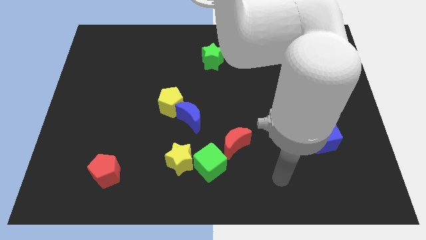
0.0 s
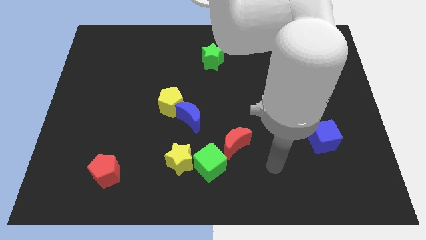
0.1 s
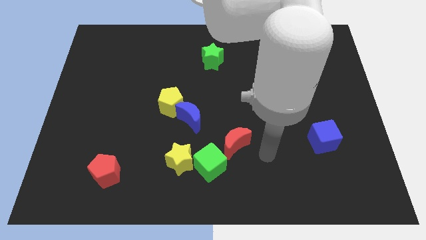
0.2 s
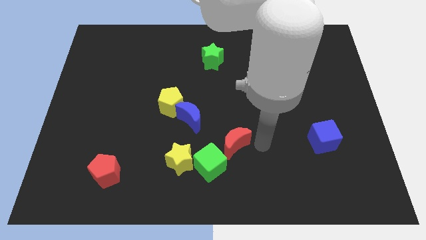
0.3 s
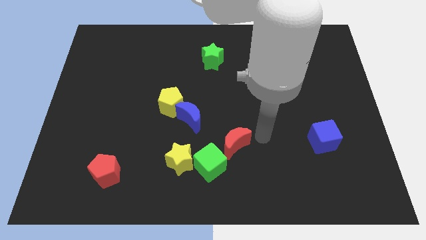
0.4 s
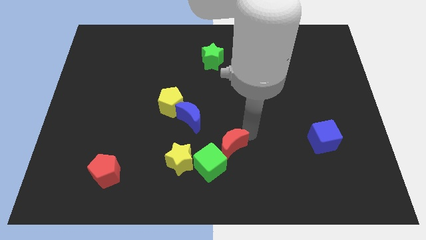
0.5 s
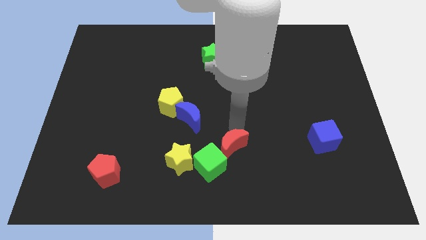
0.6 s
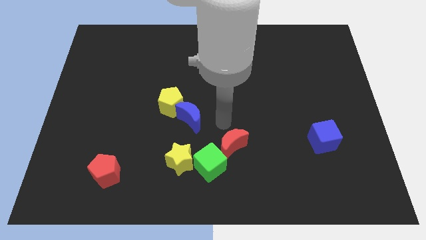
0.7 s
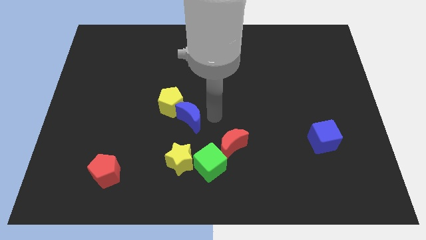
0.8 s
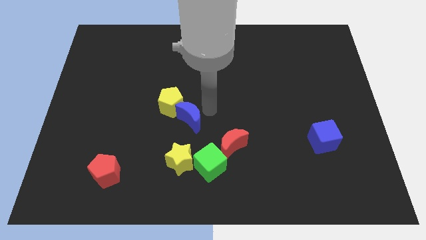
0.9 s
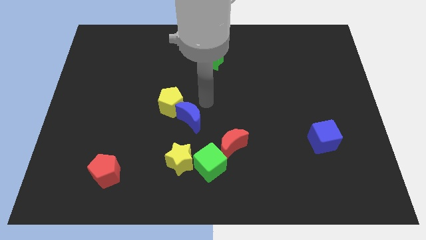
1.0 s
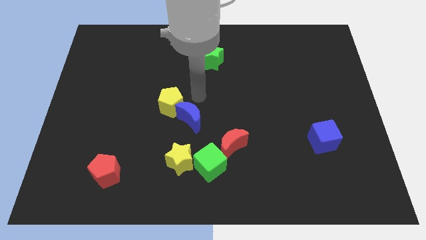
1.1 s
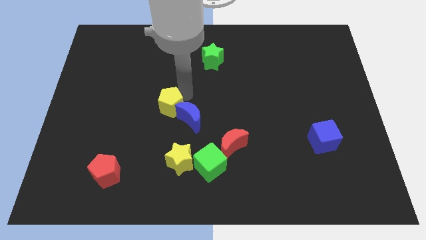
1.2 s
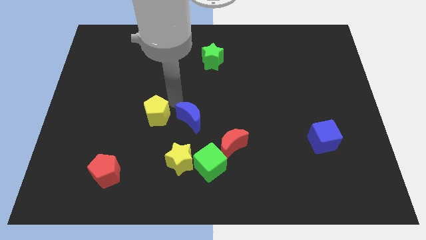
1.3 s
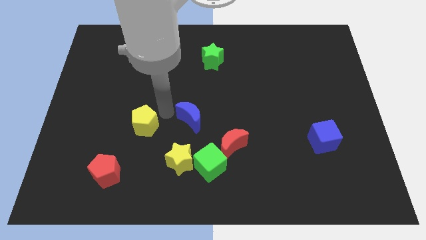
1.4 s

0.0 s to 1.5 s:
pull the blue moon apart from the yellow pentagon

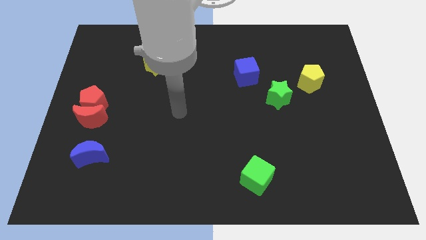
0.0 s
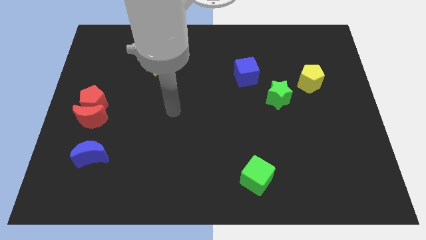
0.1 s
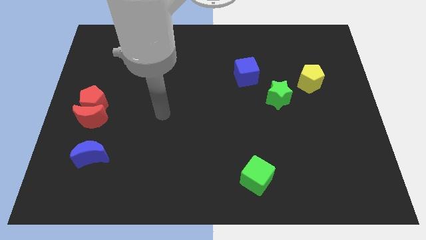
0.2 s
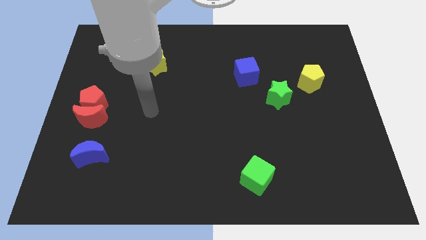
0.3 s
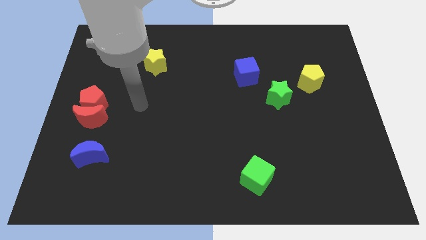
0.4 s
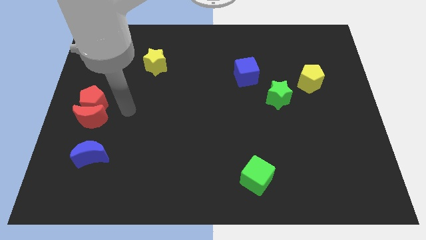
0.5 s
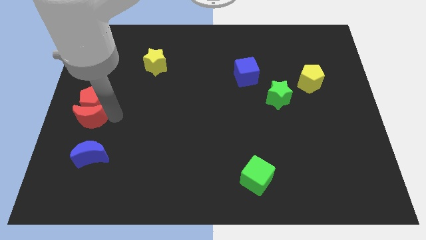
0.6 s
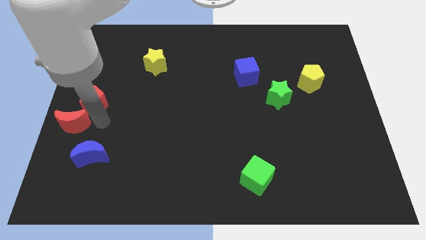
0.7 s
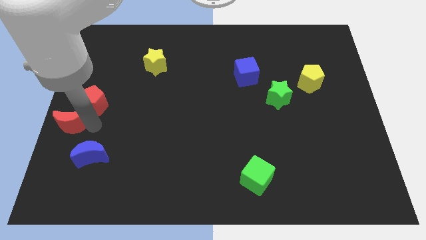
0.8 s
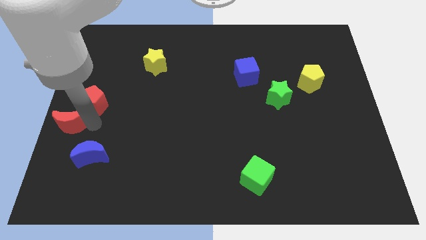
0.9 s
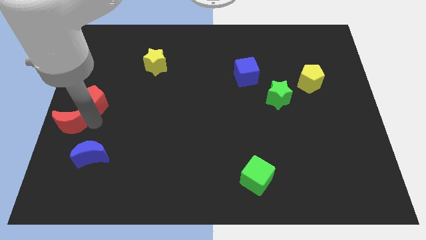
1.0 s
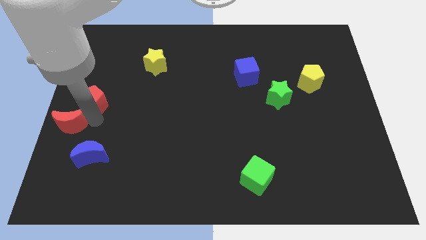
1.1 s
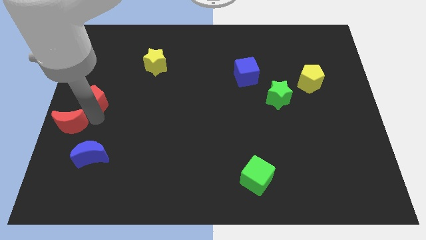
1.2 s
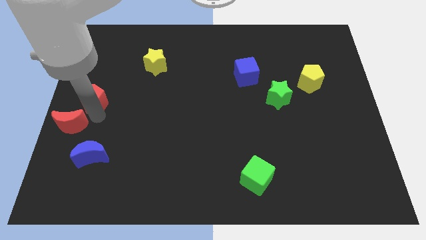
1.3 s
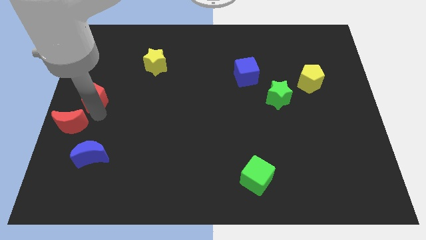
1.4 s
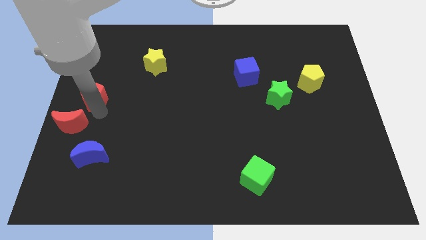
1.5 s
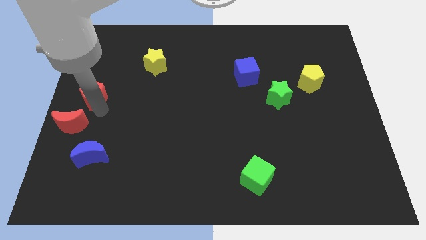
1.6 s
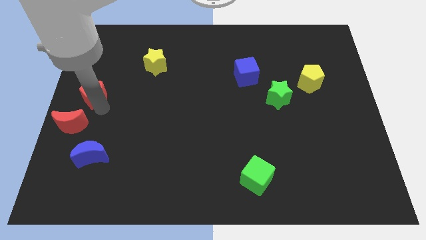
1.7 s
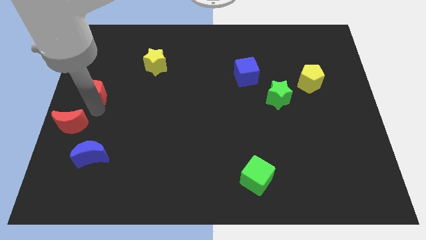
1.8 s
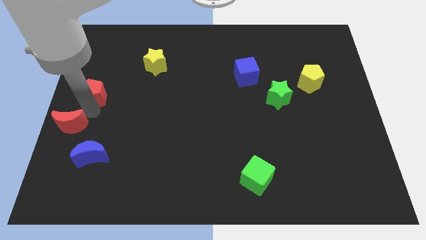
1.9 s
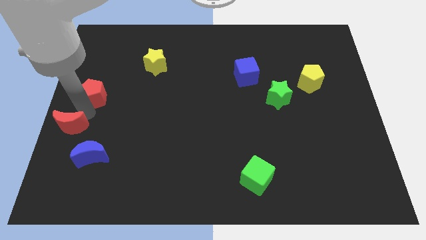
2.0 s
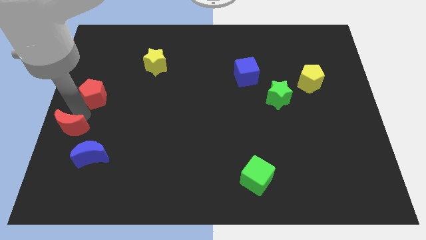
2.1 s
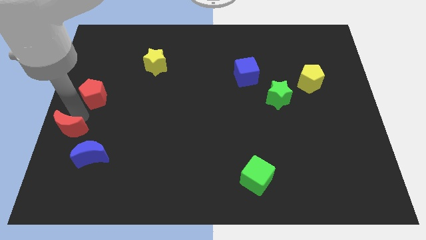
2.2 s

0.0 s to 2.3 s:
pull the red pentagon apart from the red moon

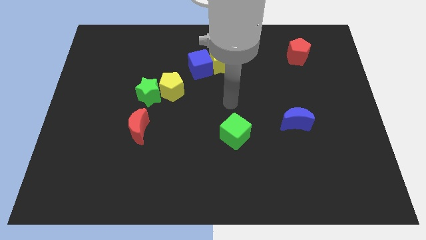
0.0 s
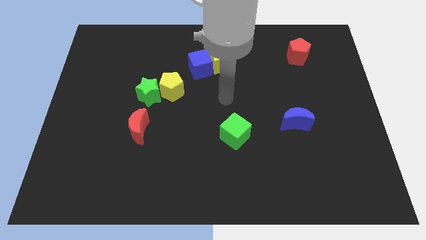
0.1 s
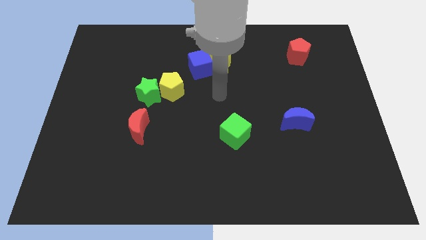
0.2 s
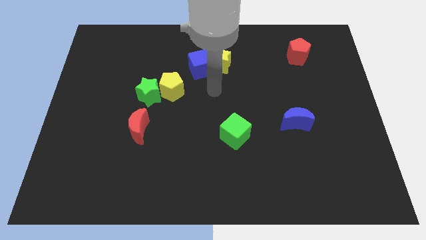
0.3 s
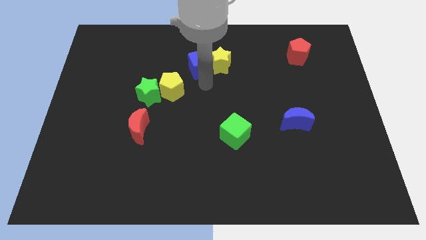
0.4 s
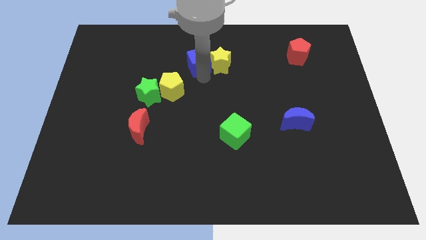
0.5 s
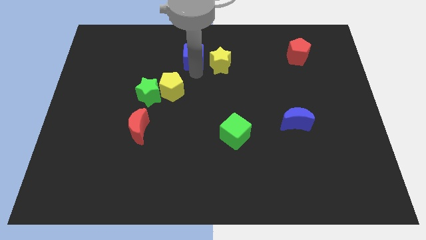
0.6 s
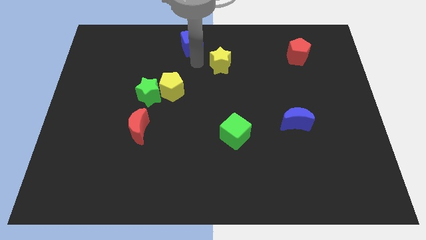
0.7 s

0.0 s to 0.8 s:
pull the yellow star apart from the blue cube

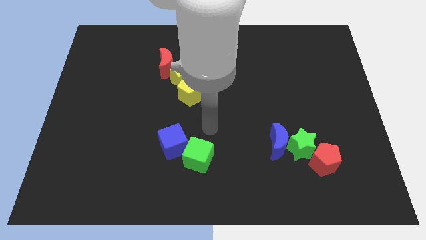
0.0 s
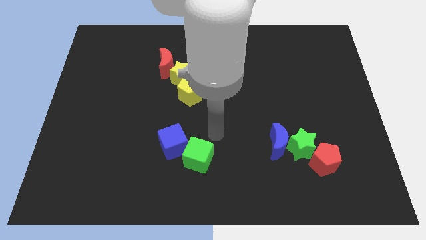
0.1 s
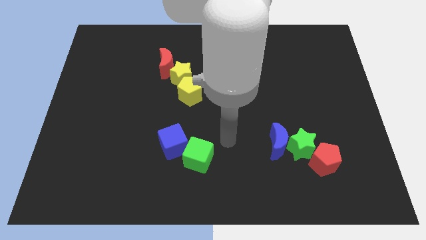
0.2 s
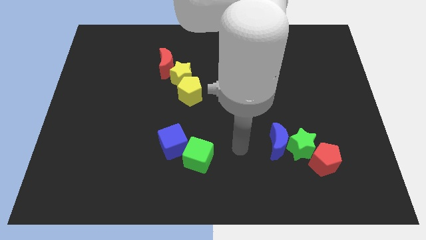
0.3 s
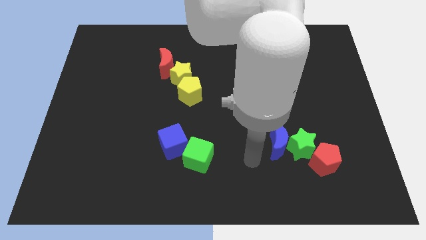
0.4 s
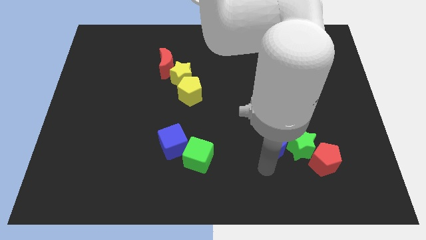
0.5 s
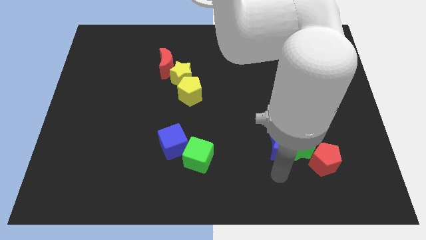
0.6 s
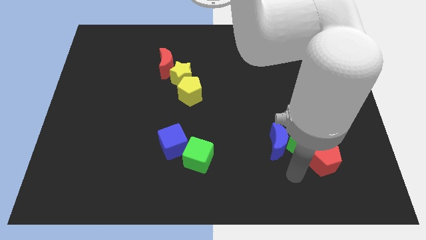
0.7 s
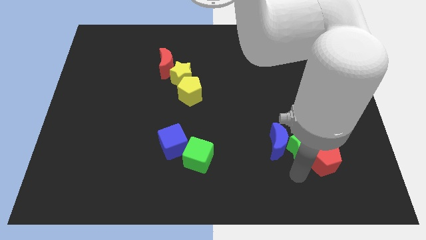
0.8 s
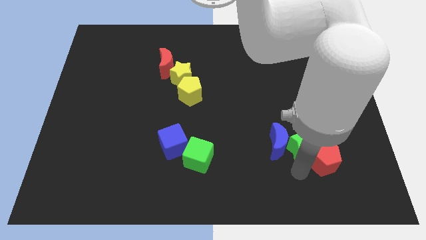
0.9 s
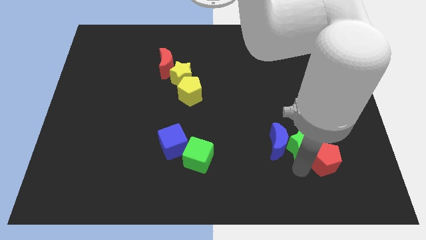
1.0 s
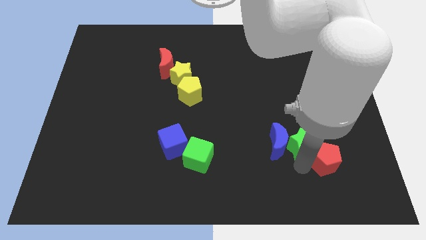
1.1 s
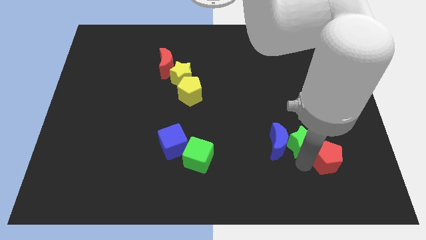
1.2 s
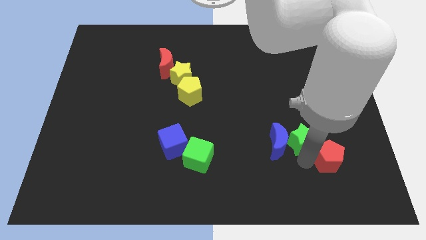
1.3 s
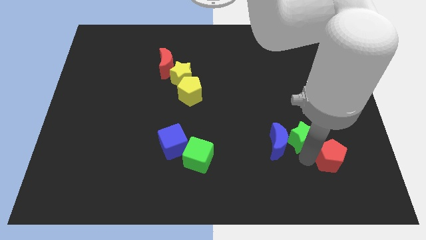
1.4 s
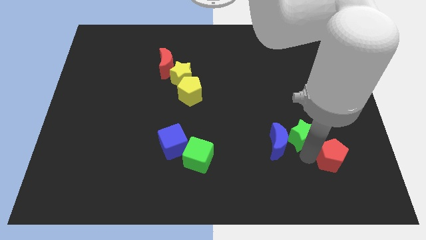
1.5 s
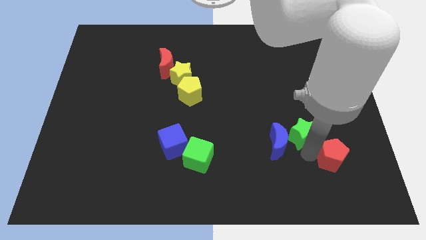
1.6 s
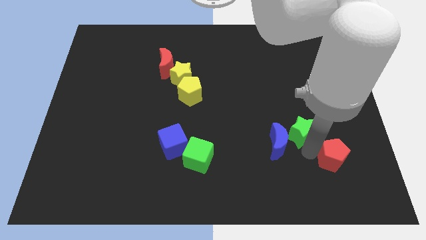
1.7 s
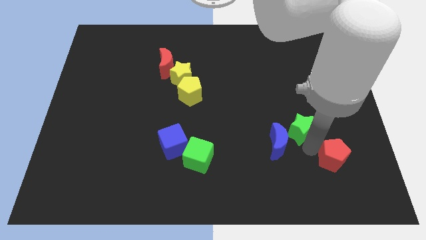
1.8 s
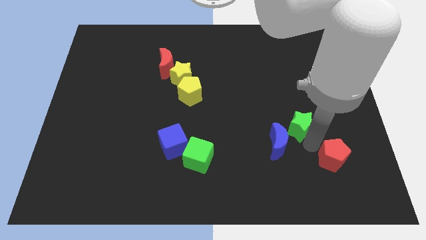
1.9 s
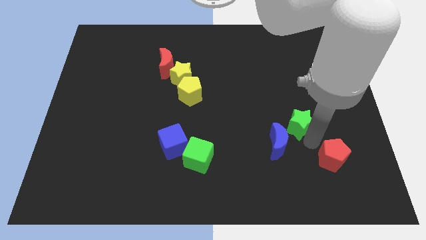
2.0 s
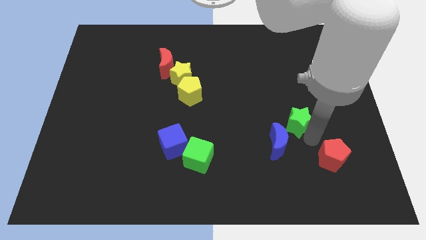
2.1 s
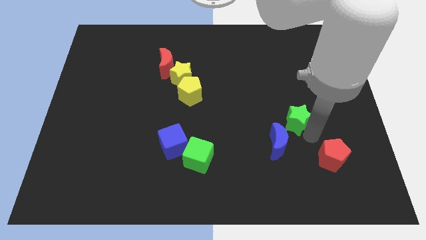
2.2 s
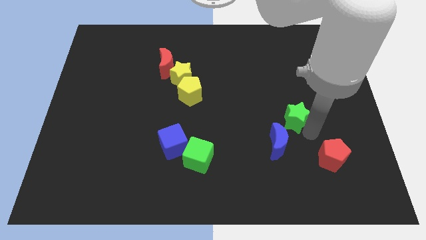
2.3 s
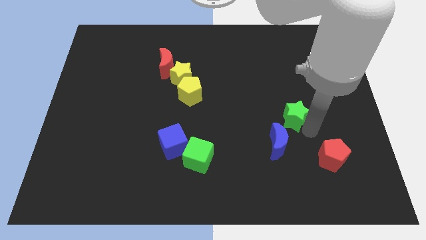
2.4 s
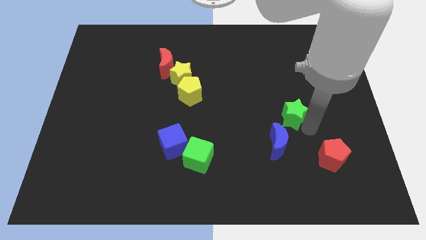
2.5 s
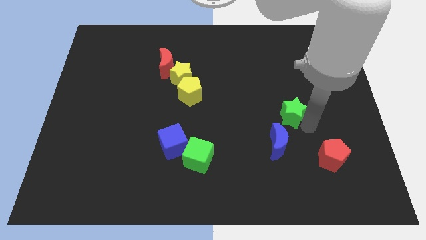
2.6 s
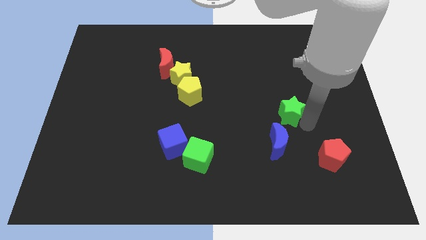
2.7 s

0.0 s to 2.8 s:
pull the green star apart from the blue moon and red pentagon

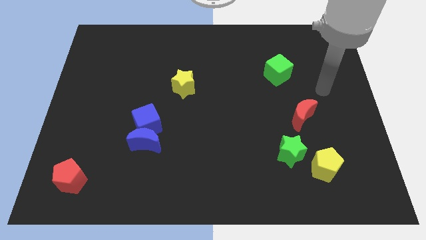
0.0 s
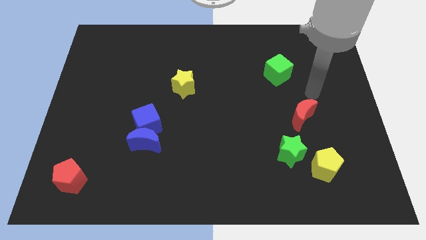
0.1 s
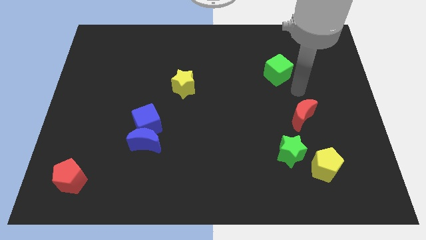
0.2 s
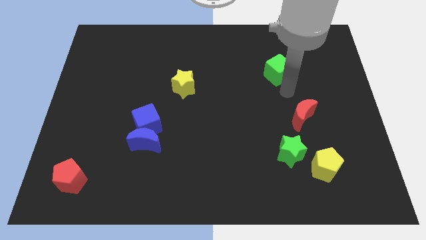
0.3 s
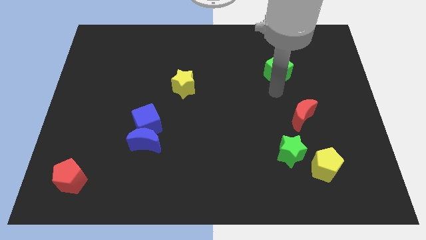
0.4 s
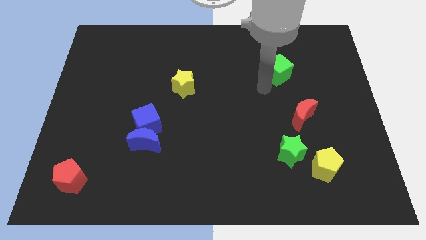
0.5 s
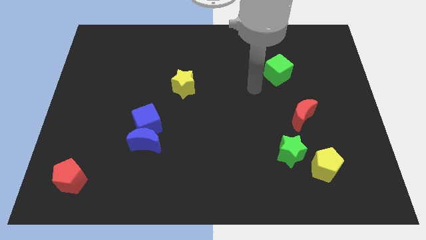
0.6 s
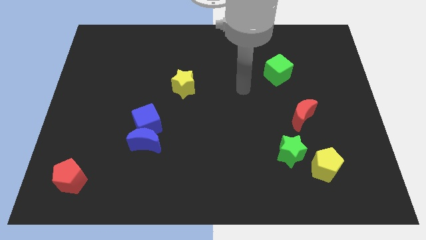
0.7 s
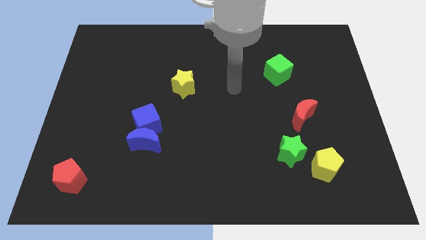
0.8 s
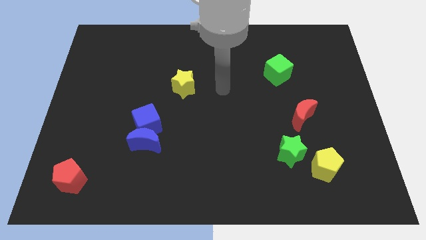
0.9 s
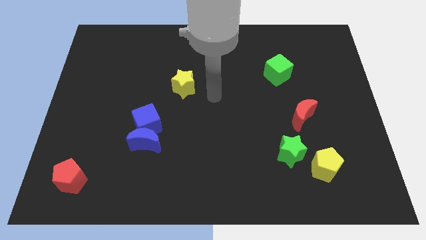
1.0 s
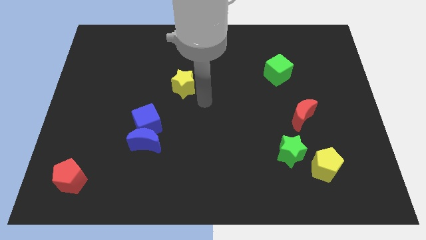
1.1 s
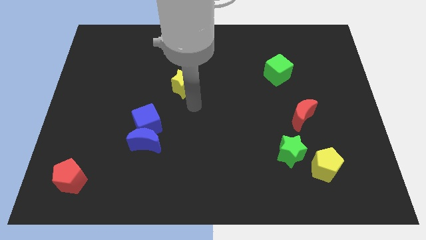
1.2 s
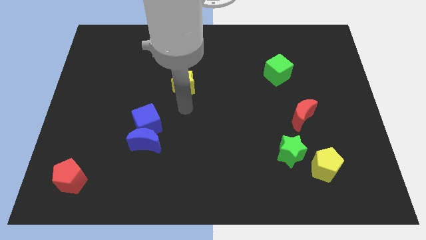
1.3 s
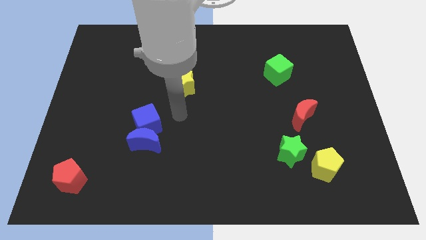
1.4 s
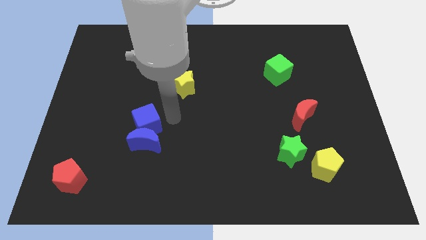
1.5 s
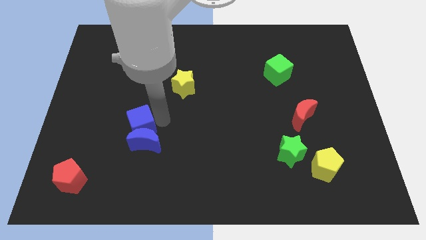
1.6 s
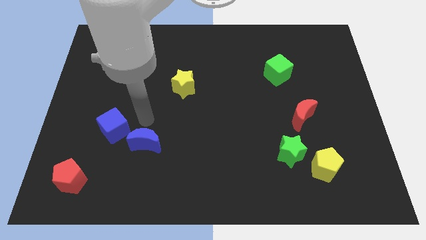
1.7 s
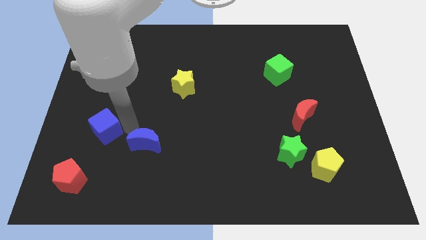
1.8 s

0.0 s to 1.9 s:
move the blue moon away from the blue cube
